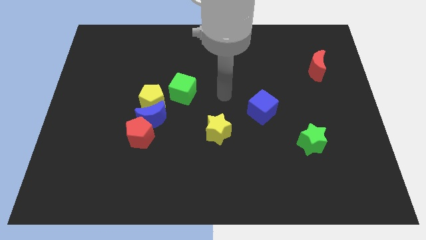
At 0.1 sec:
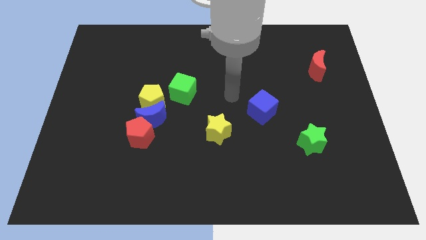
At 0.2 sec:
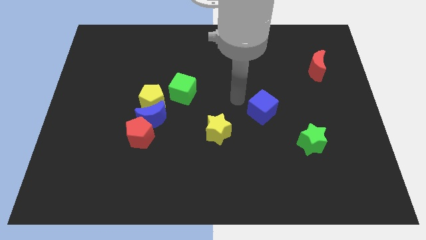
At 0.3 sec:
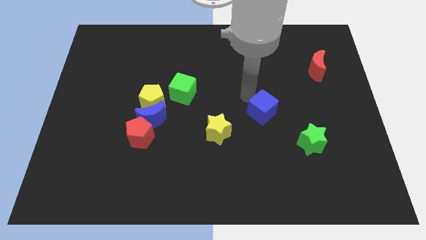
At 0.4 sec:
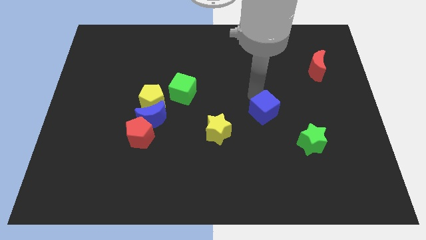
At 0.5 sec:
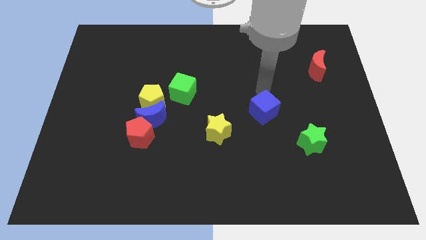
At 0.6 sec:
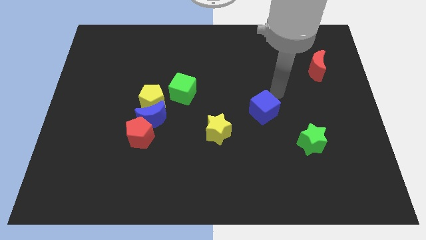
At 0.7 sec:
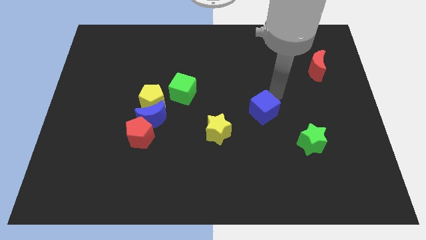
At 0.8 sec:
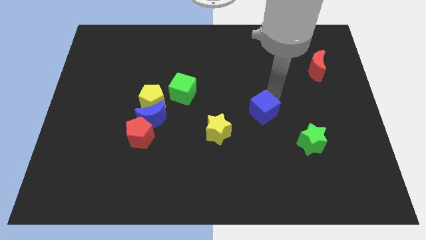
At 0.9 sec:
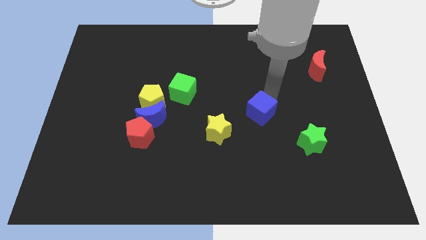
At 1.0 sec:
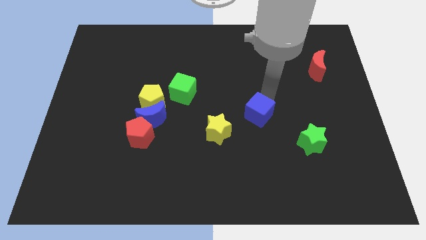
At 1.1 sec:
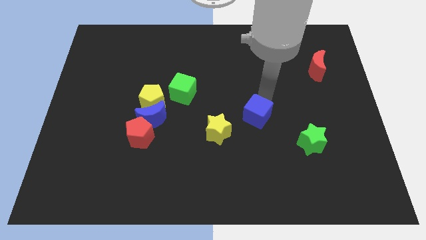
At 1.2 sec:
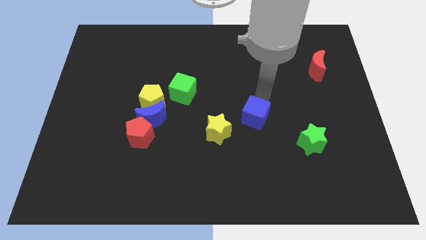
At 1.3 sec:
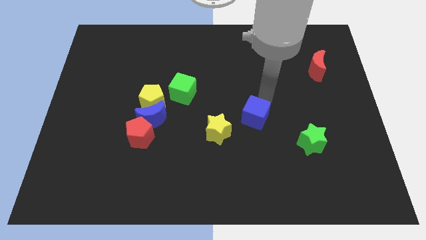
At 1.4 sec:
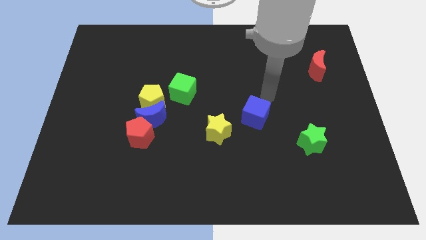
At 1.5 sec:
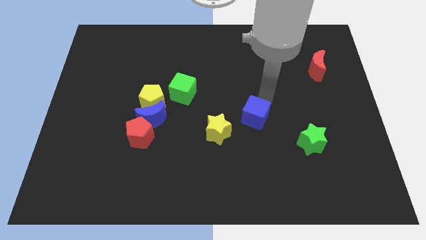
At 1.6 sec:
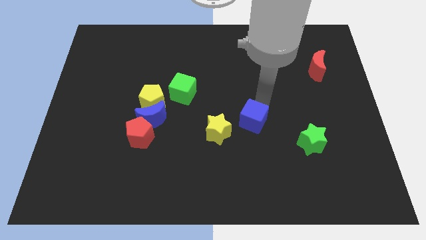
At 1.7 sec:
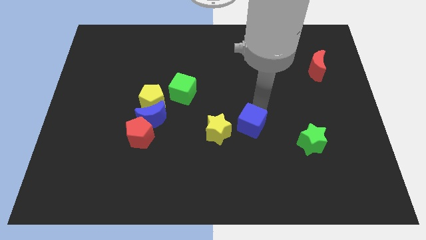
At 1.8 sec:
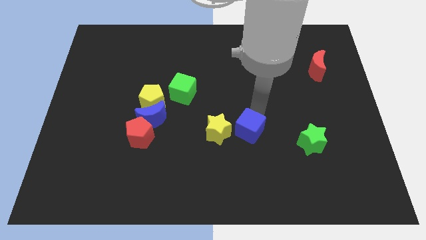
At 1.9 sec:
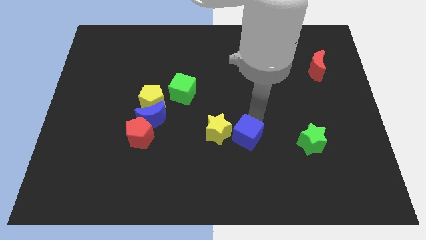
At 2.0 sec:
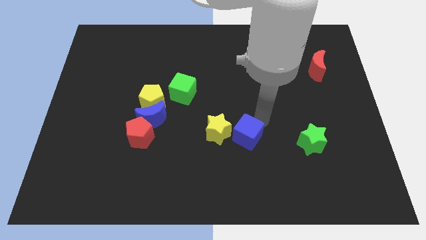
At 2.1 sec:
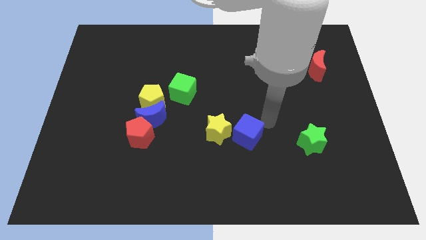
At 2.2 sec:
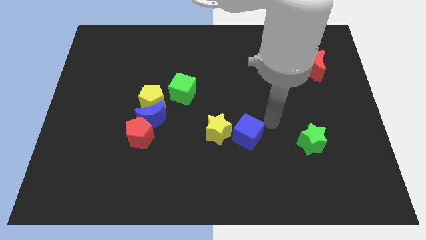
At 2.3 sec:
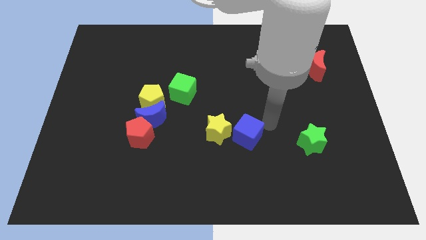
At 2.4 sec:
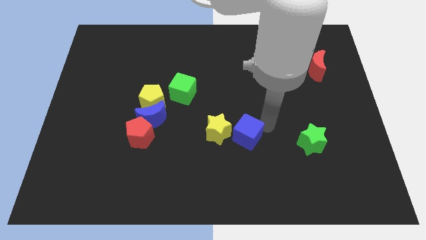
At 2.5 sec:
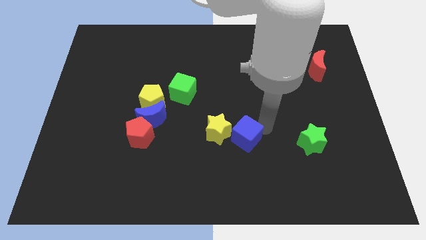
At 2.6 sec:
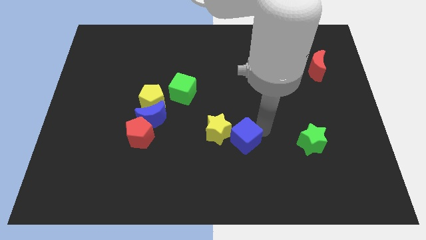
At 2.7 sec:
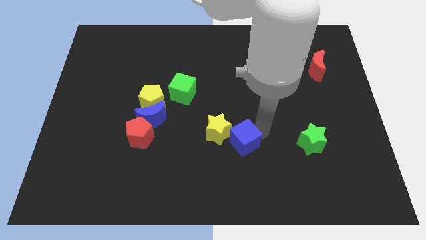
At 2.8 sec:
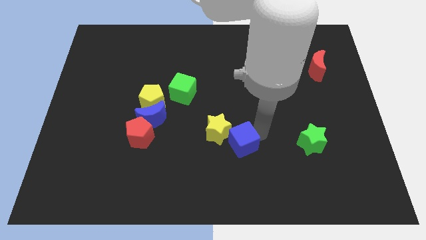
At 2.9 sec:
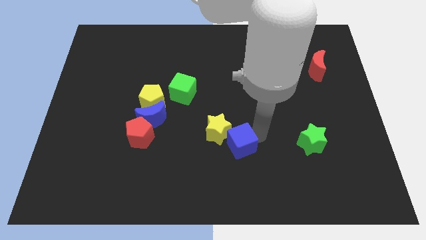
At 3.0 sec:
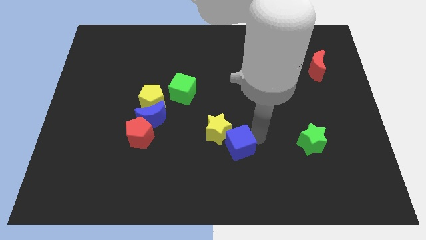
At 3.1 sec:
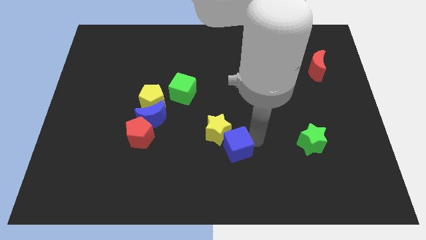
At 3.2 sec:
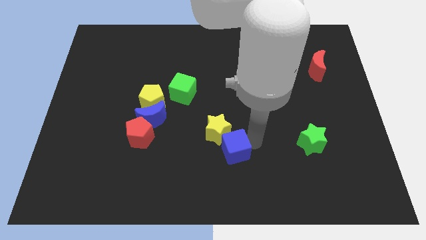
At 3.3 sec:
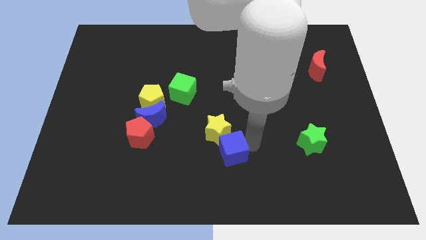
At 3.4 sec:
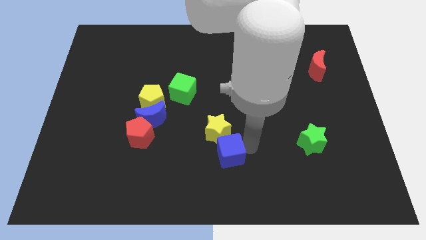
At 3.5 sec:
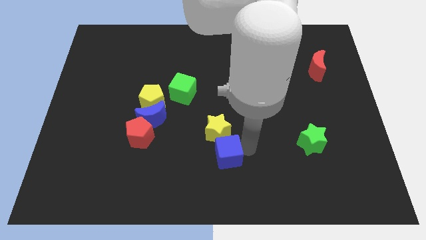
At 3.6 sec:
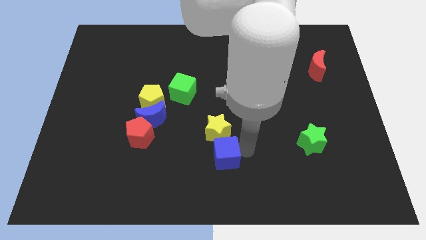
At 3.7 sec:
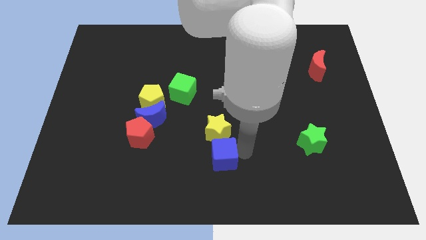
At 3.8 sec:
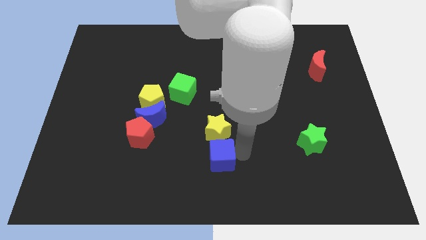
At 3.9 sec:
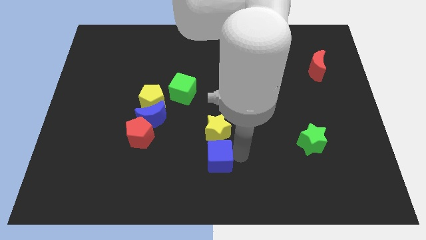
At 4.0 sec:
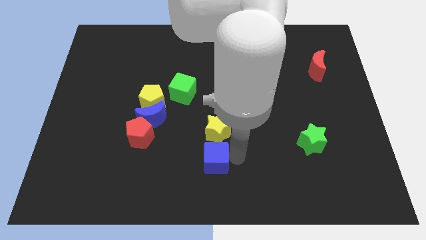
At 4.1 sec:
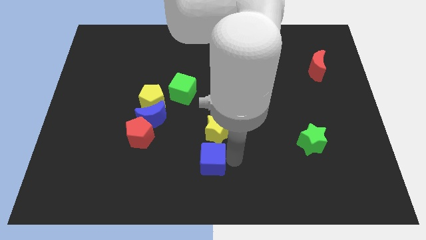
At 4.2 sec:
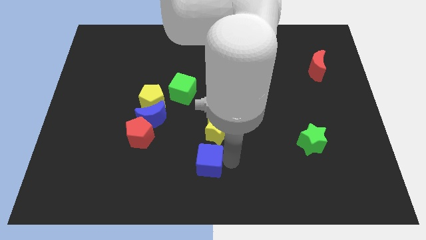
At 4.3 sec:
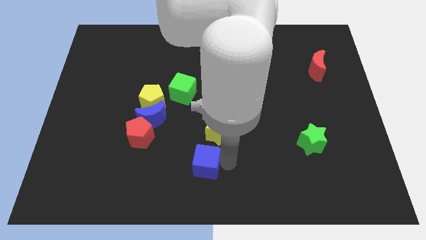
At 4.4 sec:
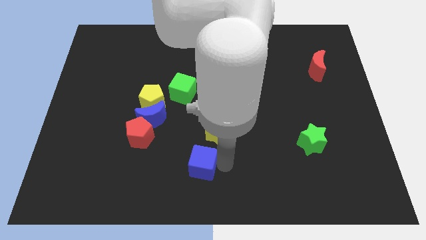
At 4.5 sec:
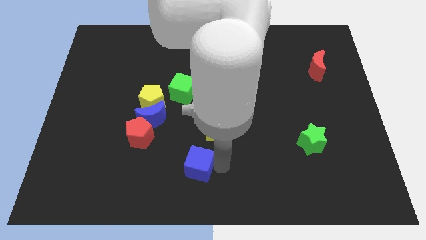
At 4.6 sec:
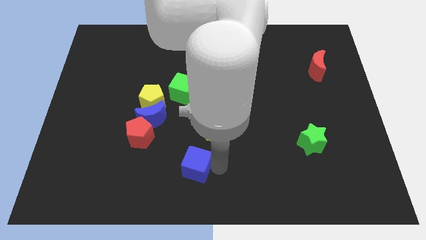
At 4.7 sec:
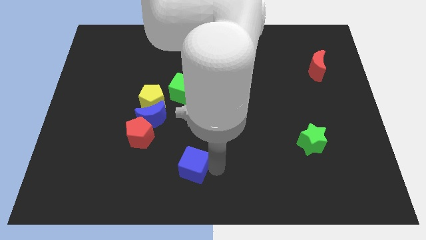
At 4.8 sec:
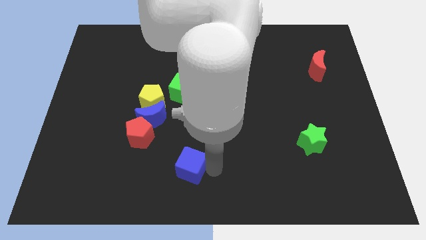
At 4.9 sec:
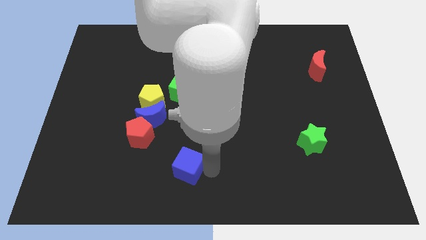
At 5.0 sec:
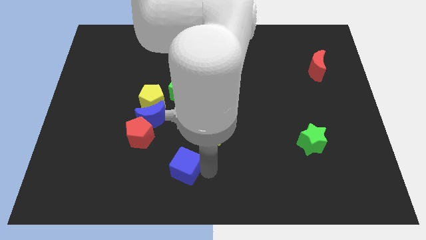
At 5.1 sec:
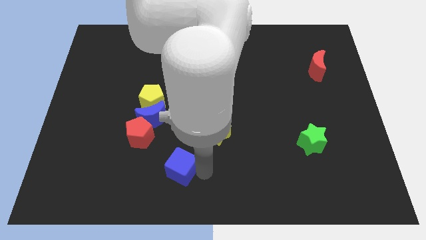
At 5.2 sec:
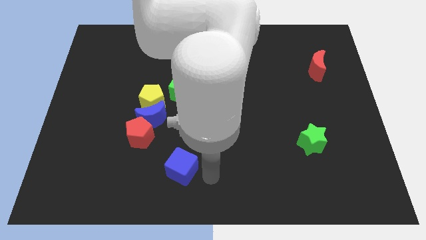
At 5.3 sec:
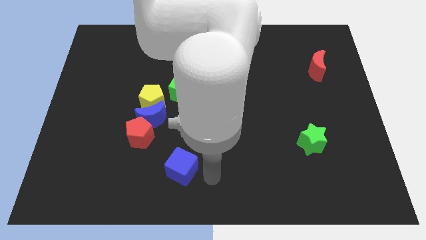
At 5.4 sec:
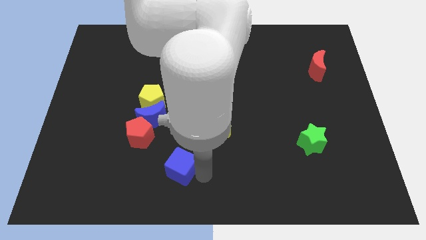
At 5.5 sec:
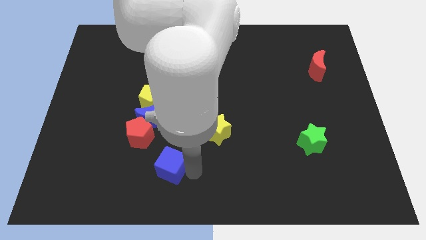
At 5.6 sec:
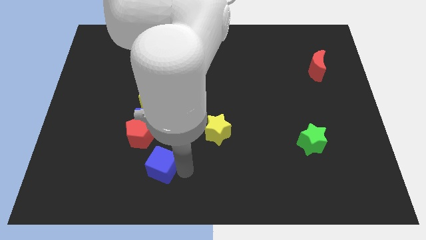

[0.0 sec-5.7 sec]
move the blue cube below the blue moon

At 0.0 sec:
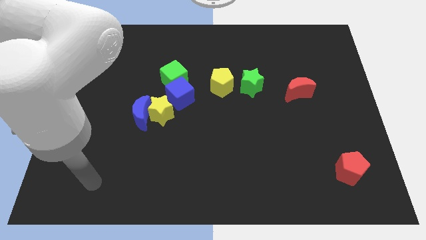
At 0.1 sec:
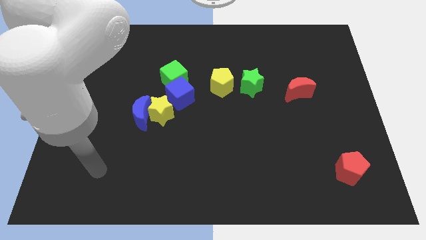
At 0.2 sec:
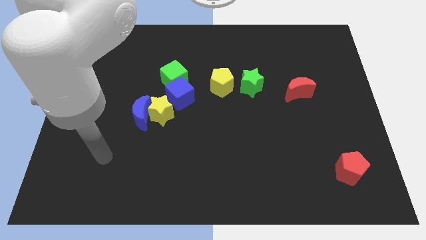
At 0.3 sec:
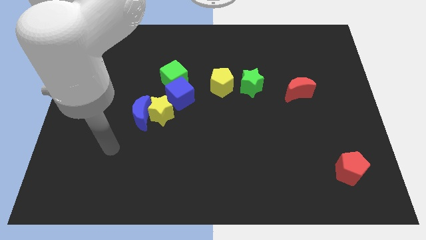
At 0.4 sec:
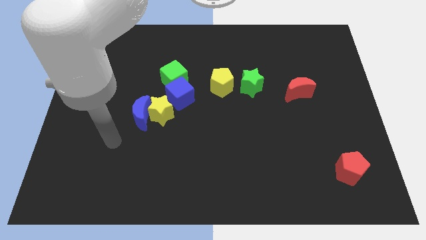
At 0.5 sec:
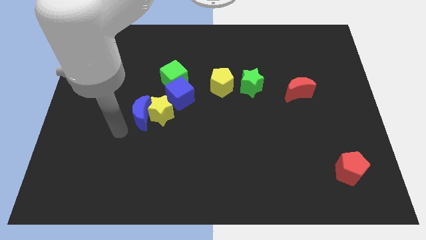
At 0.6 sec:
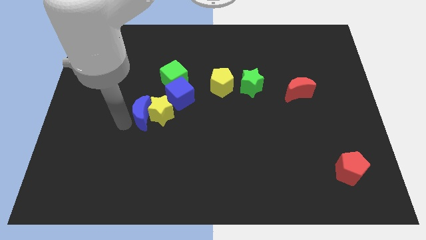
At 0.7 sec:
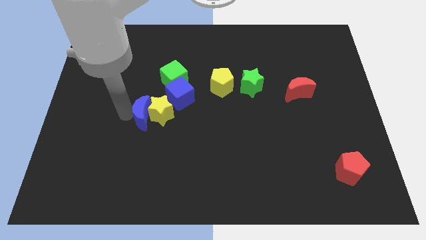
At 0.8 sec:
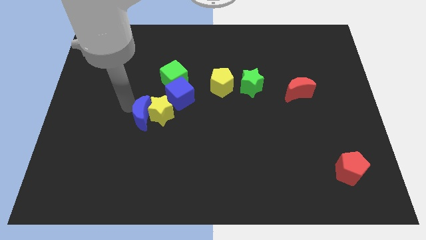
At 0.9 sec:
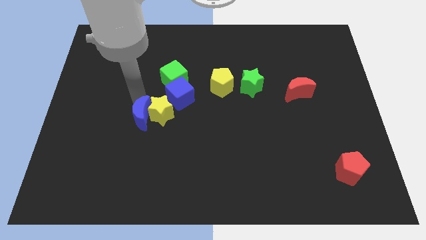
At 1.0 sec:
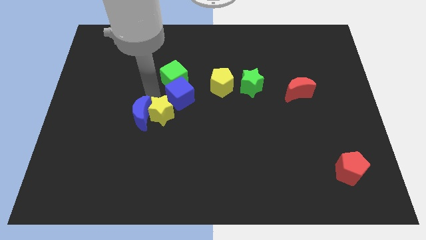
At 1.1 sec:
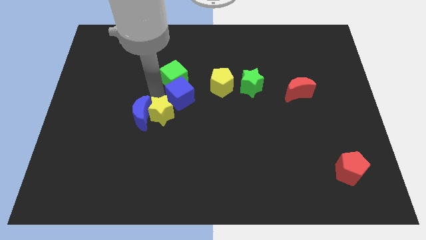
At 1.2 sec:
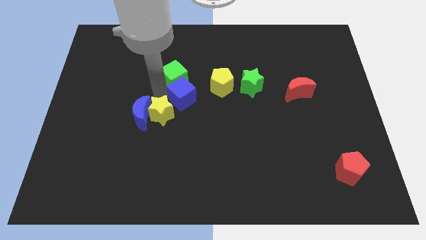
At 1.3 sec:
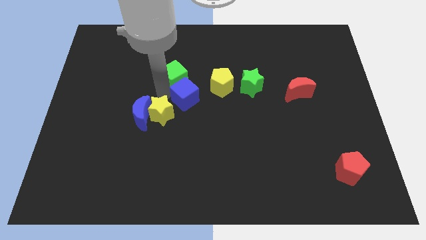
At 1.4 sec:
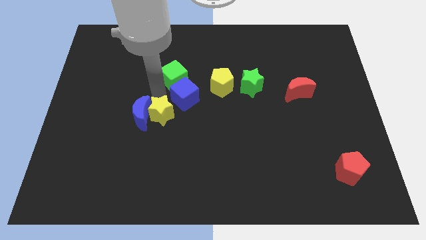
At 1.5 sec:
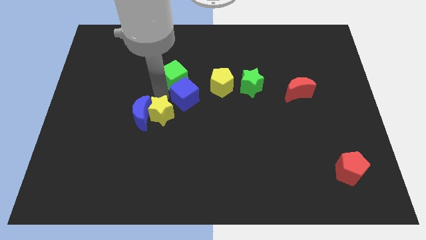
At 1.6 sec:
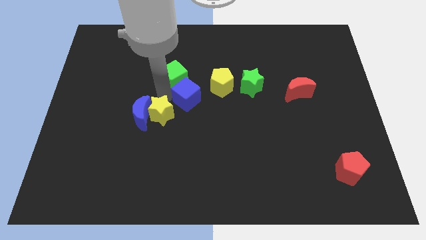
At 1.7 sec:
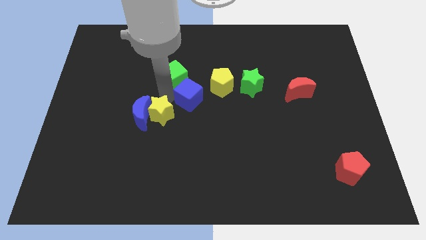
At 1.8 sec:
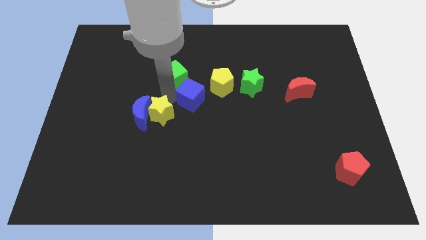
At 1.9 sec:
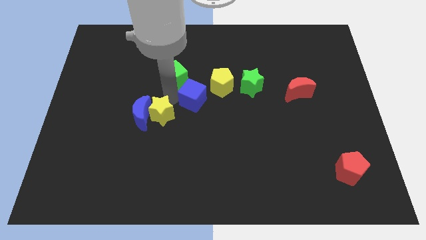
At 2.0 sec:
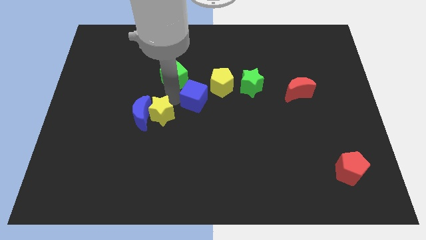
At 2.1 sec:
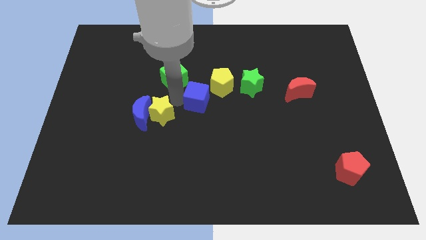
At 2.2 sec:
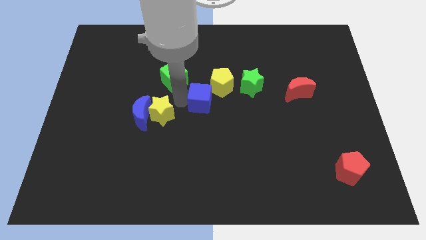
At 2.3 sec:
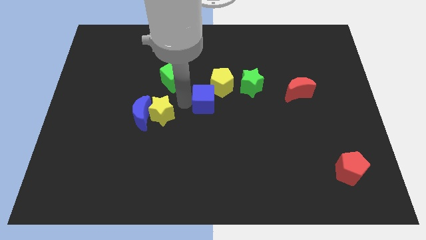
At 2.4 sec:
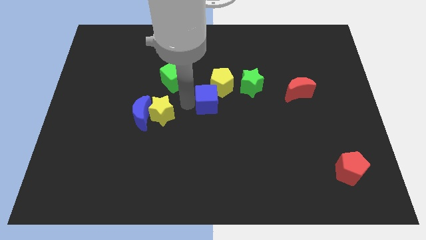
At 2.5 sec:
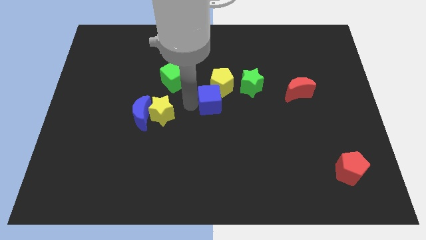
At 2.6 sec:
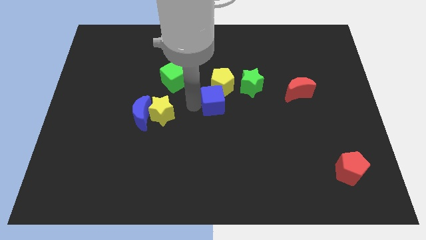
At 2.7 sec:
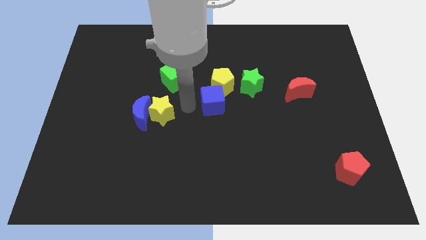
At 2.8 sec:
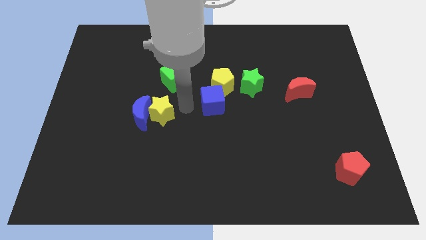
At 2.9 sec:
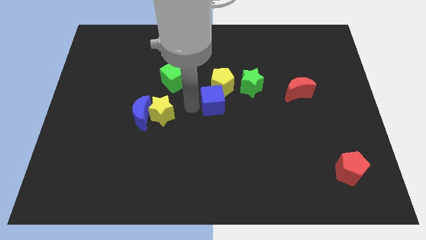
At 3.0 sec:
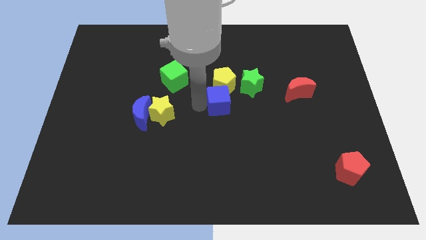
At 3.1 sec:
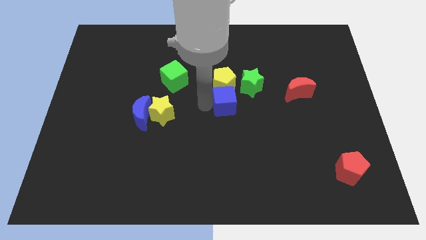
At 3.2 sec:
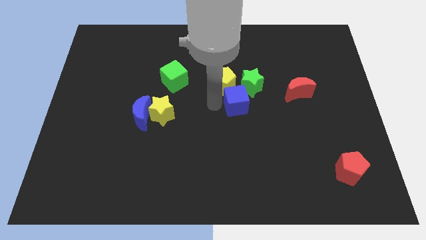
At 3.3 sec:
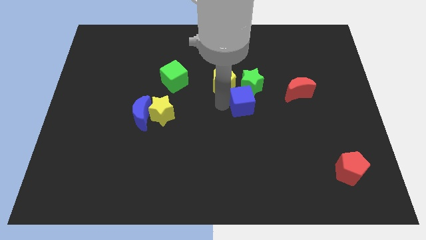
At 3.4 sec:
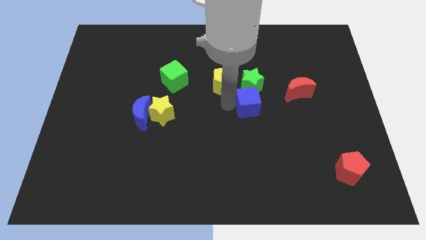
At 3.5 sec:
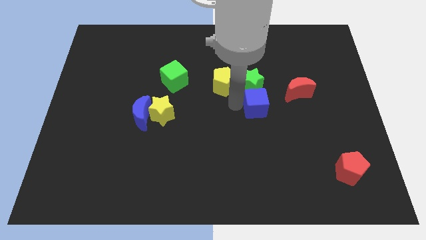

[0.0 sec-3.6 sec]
move the blue cube diagonally down and to the left of the red moon
